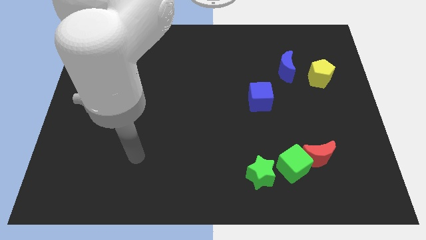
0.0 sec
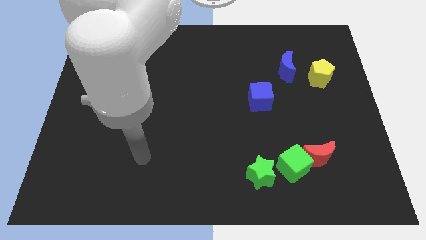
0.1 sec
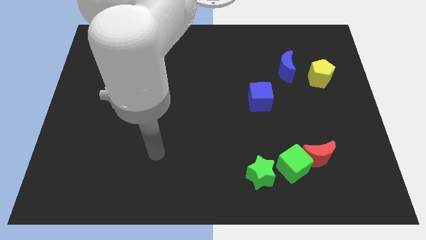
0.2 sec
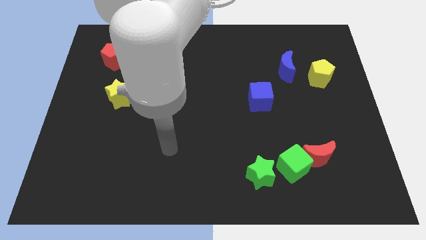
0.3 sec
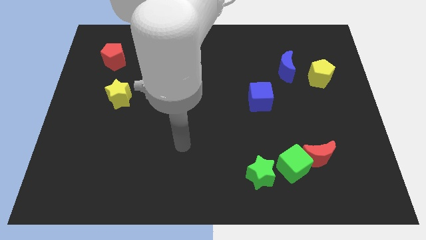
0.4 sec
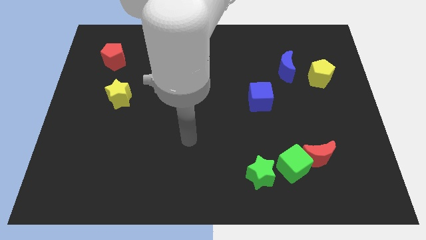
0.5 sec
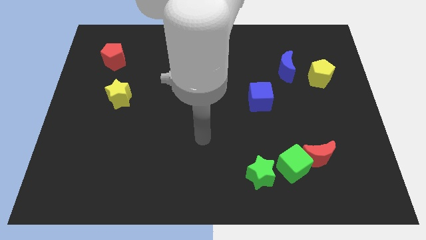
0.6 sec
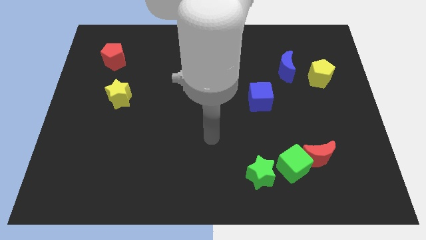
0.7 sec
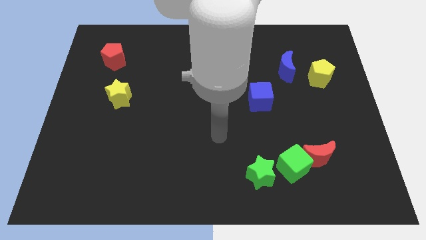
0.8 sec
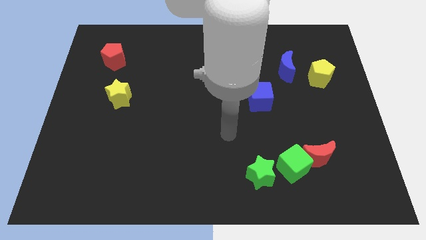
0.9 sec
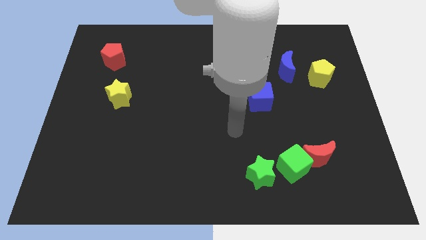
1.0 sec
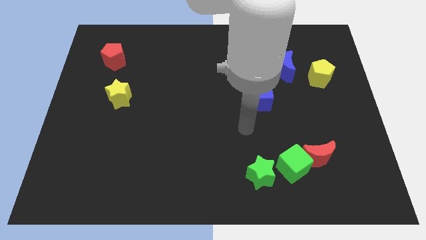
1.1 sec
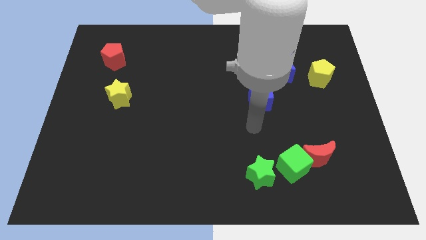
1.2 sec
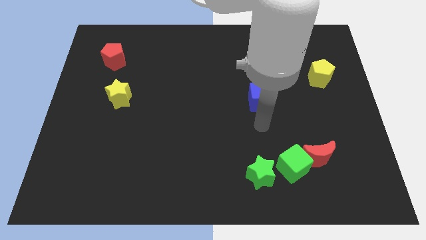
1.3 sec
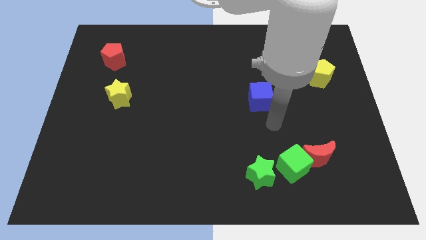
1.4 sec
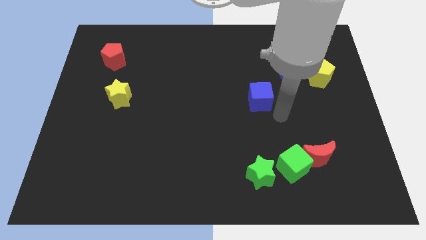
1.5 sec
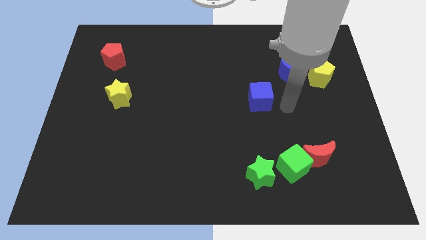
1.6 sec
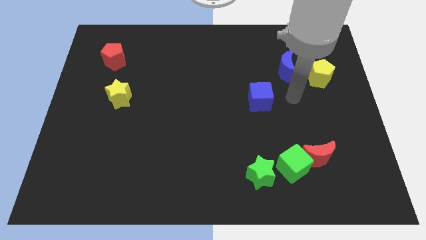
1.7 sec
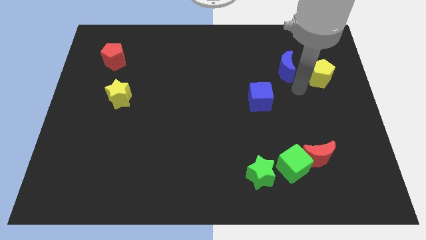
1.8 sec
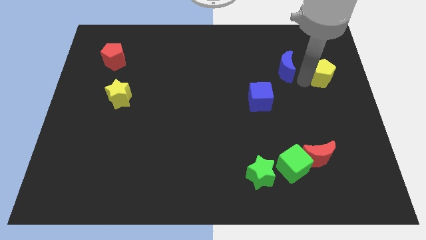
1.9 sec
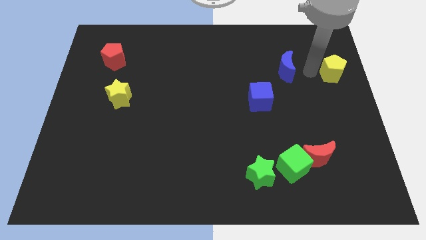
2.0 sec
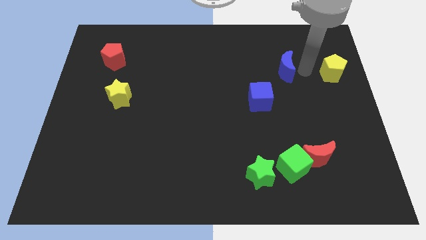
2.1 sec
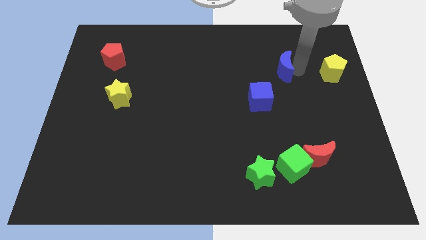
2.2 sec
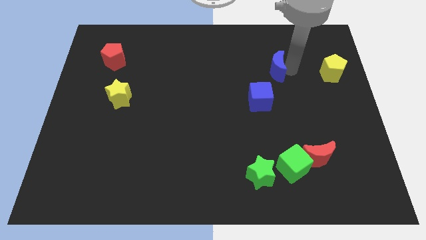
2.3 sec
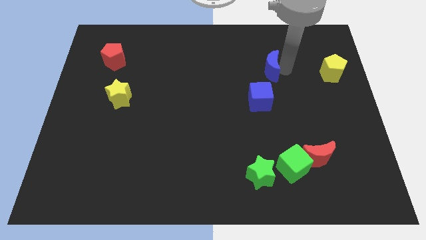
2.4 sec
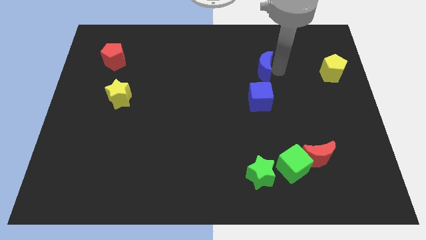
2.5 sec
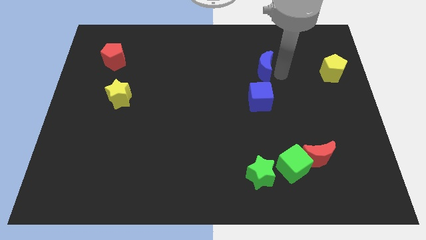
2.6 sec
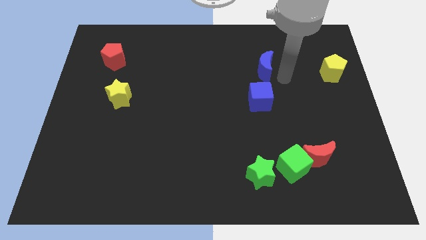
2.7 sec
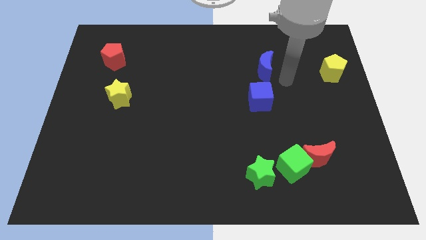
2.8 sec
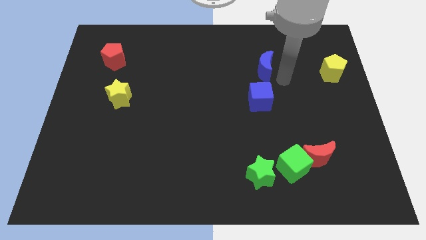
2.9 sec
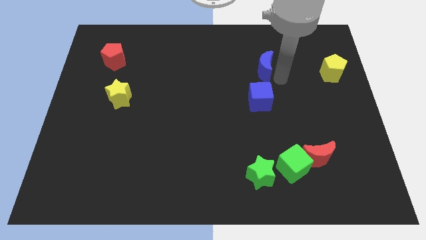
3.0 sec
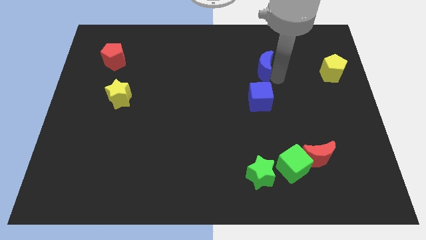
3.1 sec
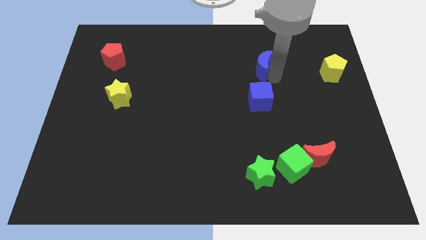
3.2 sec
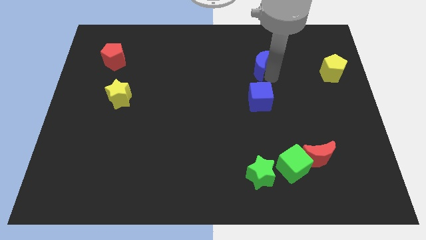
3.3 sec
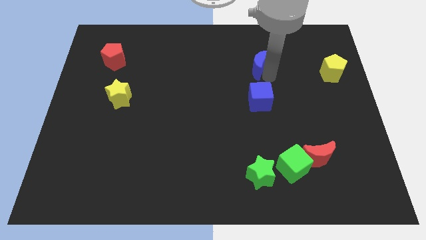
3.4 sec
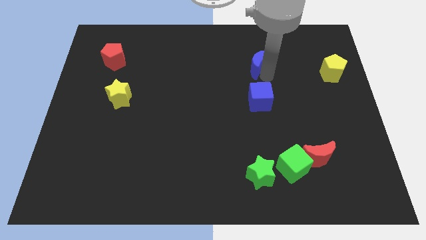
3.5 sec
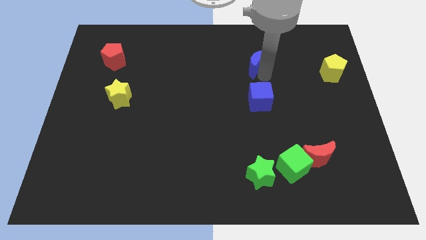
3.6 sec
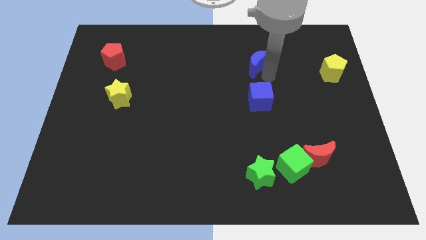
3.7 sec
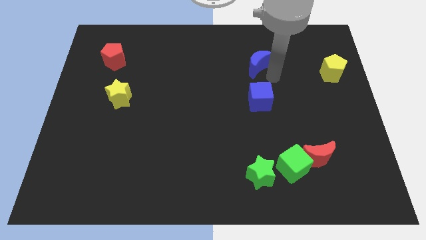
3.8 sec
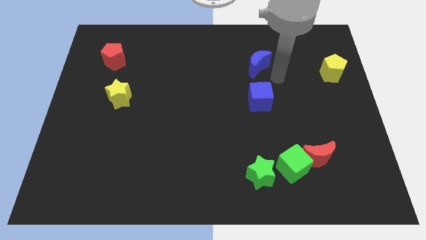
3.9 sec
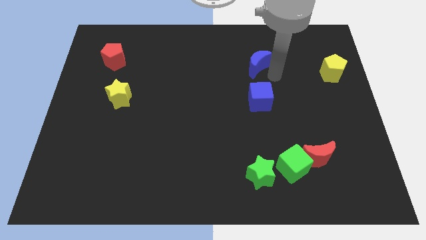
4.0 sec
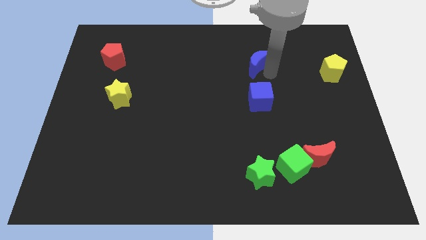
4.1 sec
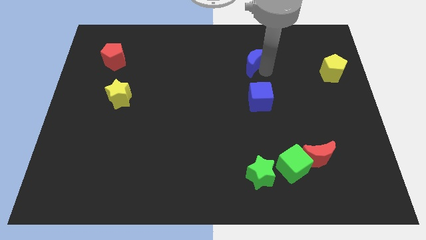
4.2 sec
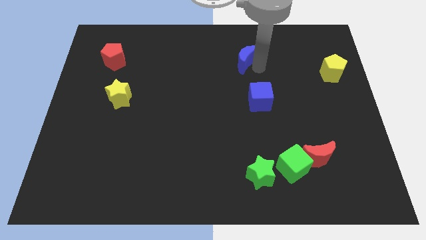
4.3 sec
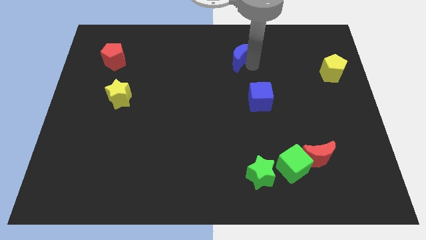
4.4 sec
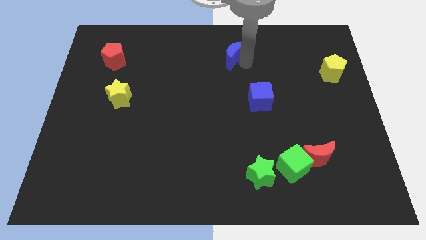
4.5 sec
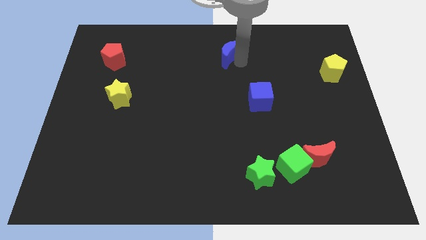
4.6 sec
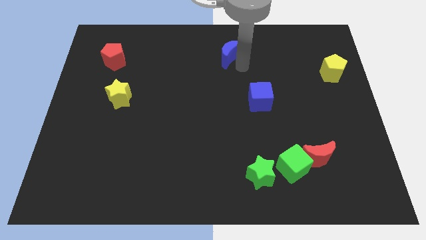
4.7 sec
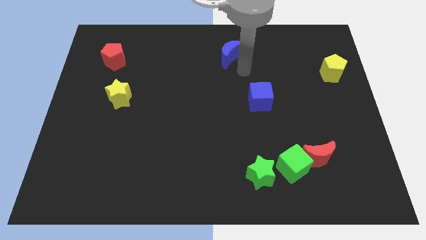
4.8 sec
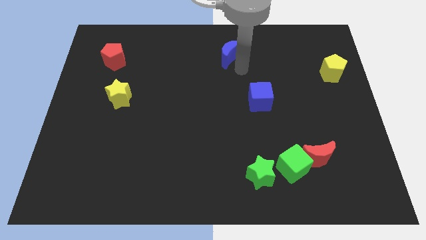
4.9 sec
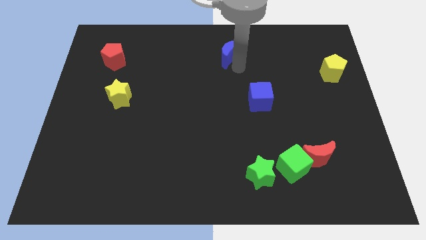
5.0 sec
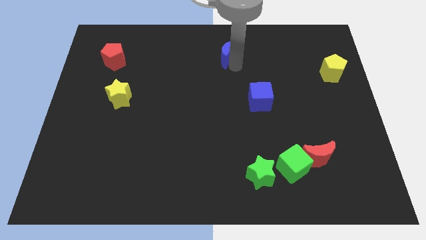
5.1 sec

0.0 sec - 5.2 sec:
slide the blue moon to the top side

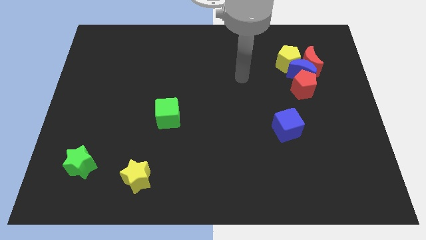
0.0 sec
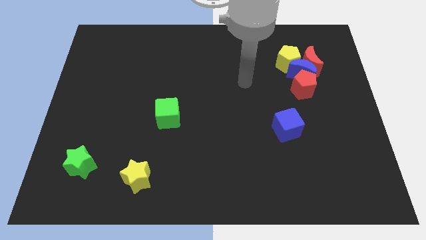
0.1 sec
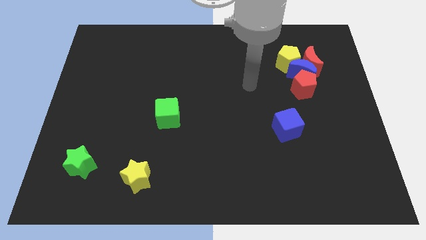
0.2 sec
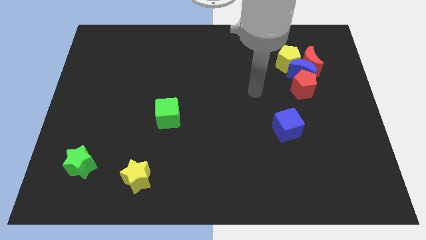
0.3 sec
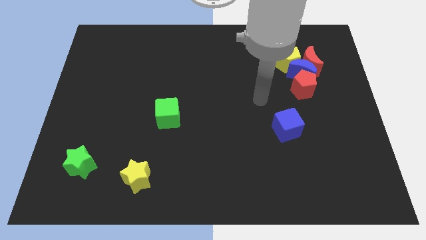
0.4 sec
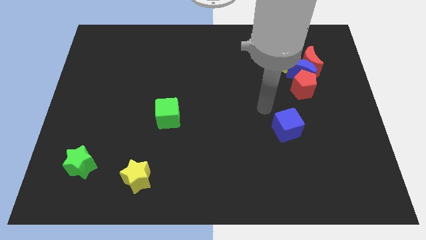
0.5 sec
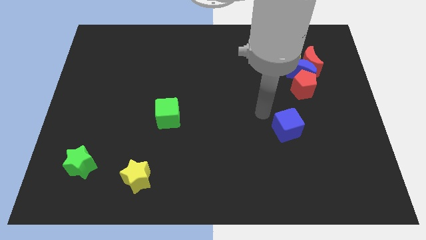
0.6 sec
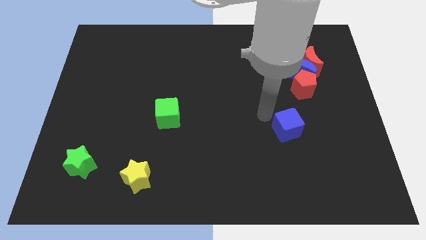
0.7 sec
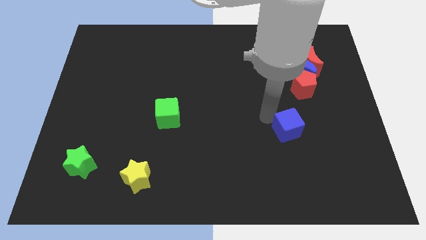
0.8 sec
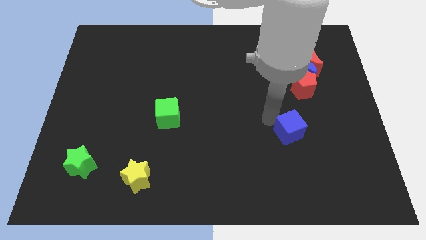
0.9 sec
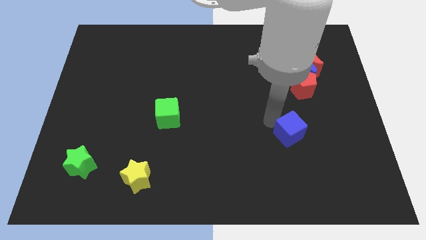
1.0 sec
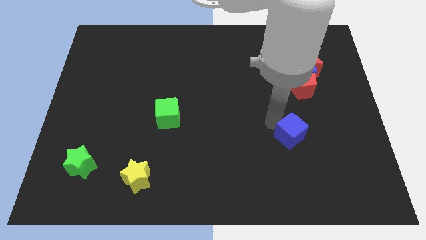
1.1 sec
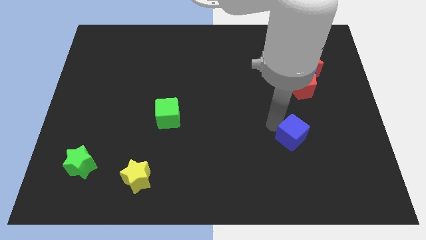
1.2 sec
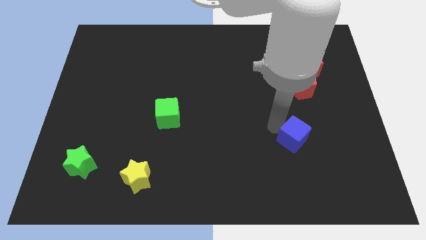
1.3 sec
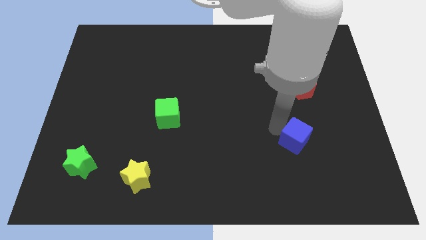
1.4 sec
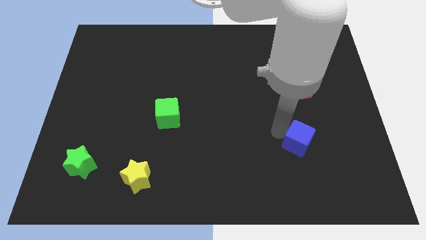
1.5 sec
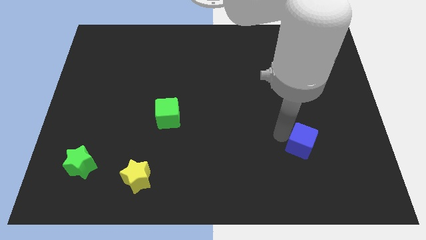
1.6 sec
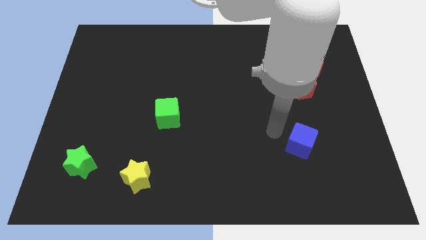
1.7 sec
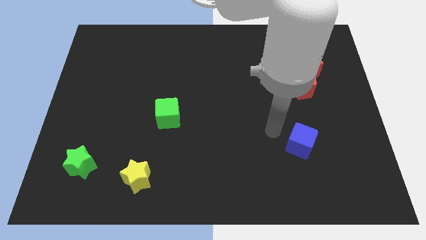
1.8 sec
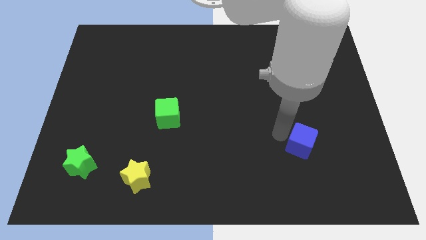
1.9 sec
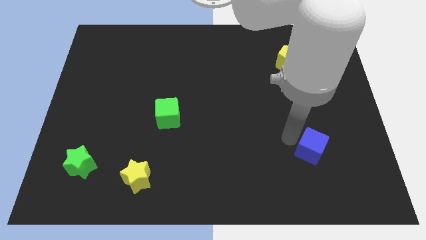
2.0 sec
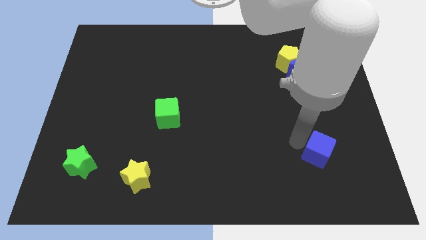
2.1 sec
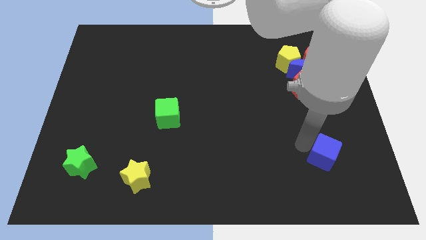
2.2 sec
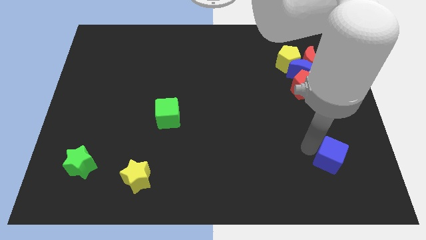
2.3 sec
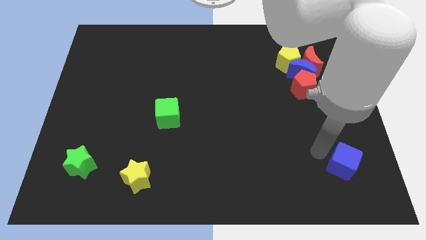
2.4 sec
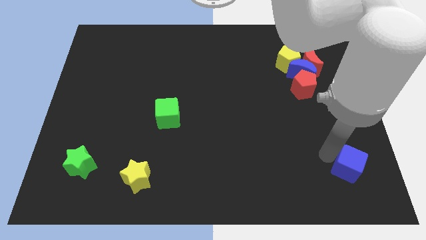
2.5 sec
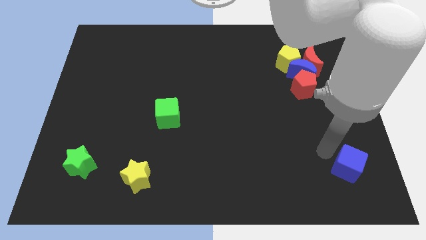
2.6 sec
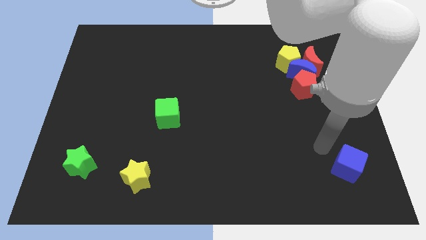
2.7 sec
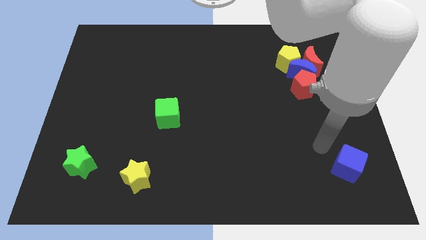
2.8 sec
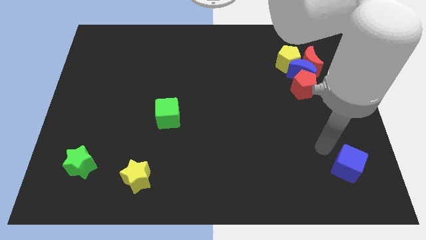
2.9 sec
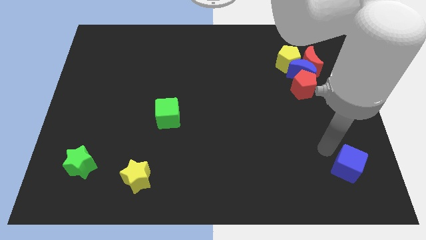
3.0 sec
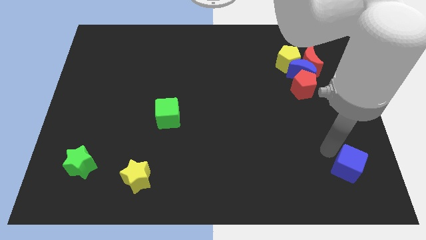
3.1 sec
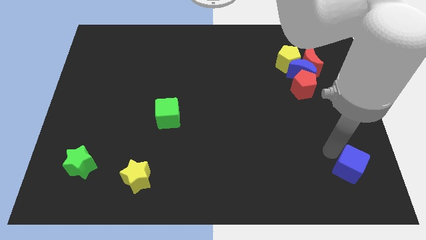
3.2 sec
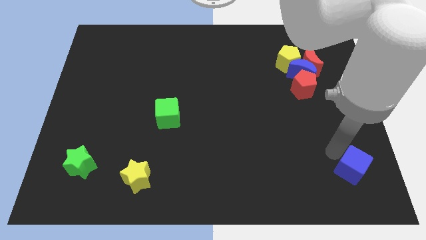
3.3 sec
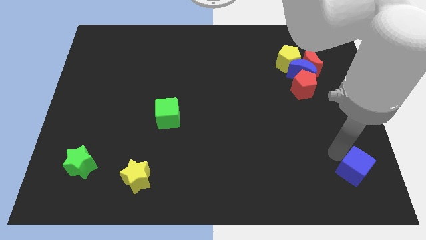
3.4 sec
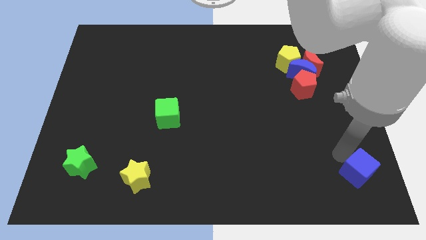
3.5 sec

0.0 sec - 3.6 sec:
move the blue cube to the bottom right corner
